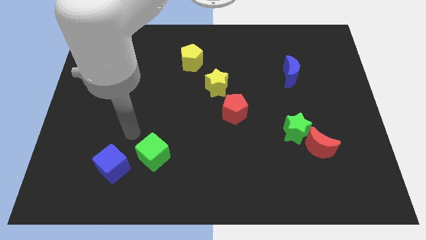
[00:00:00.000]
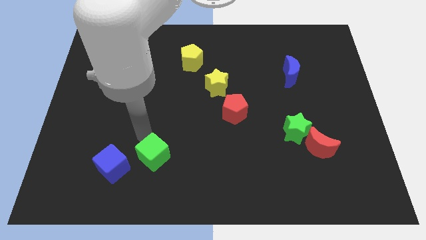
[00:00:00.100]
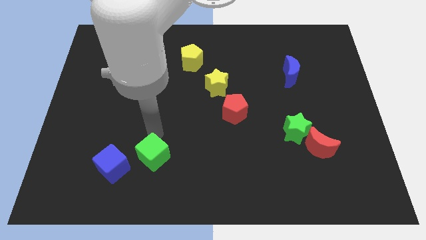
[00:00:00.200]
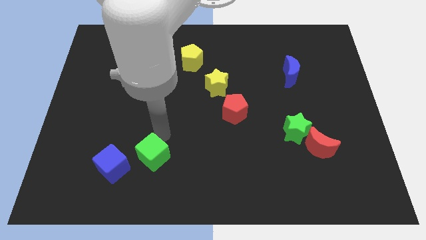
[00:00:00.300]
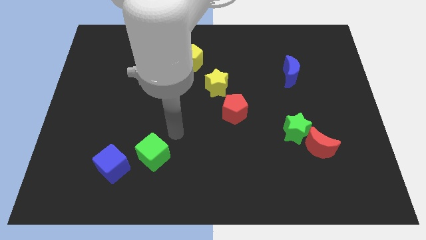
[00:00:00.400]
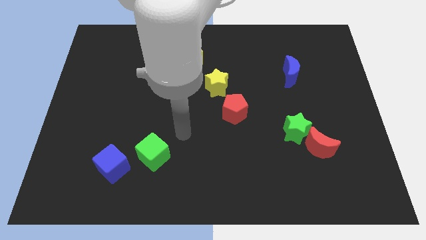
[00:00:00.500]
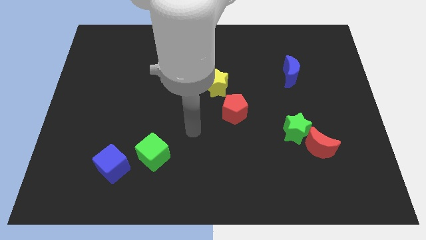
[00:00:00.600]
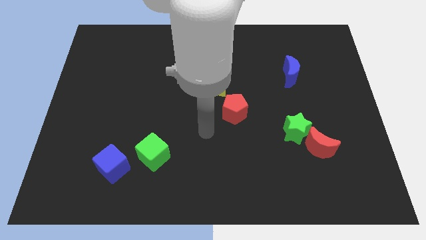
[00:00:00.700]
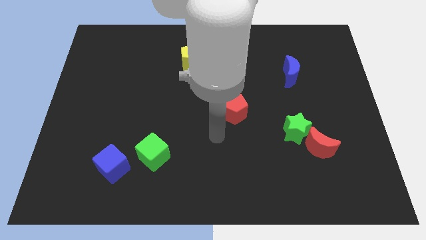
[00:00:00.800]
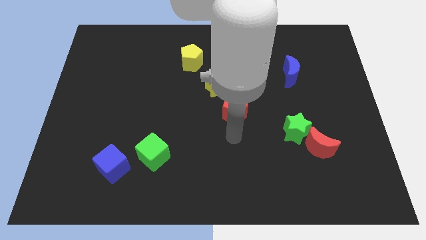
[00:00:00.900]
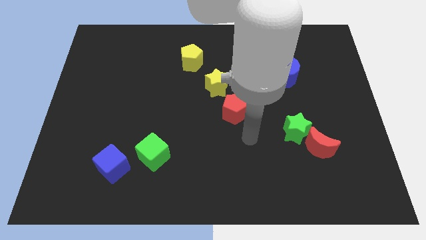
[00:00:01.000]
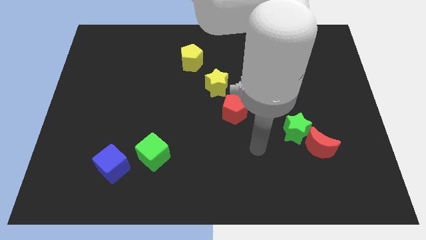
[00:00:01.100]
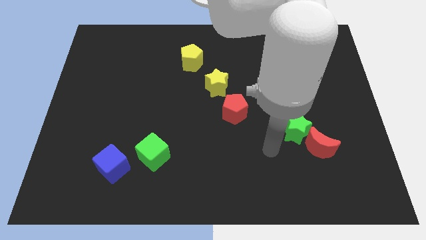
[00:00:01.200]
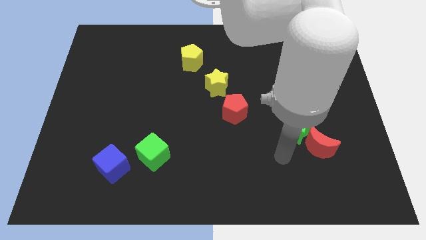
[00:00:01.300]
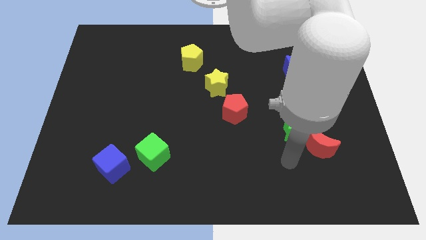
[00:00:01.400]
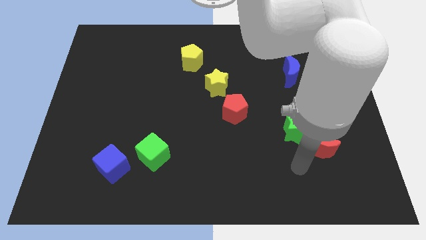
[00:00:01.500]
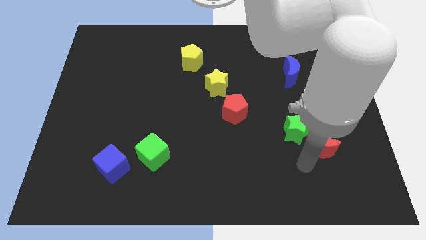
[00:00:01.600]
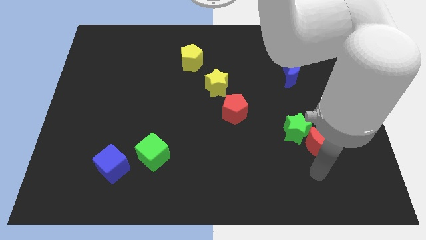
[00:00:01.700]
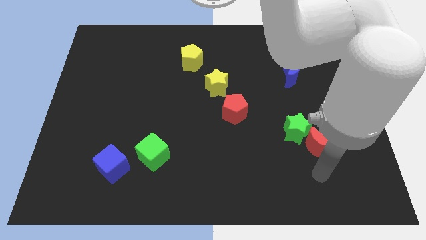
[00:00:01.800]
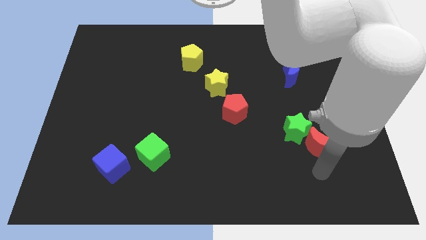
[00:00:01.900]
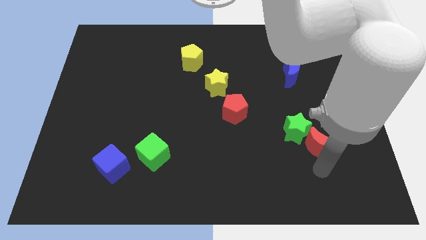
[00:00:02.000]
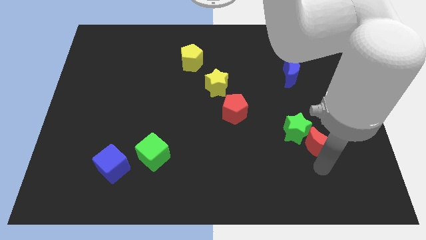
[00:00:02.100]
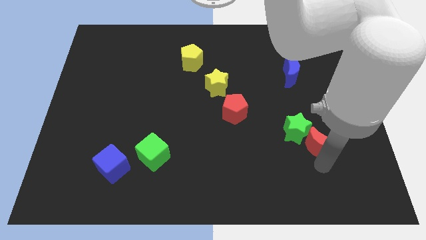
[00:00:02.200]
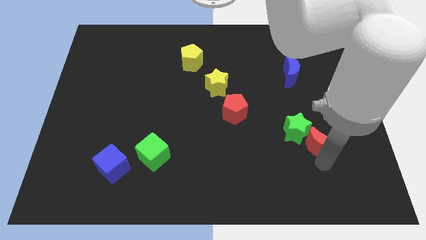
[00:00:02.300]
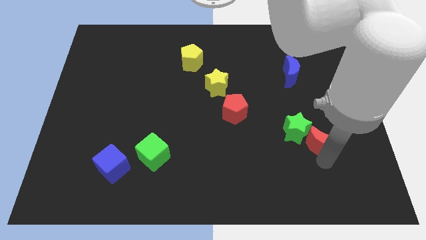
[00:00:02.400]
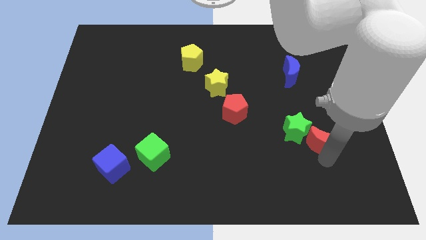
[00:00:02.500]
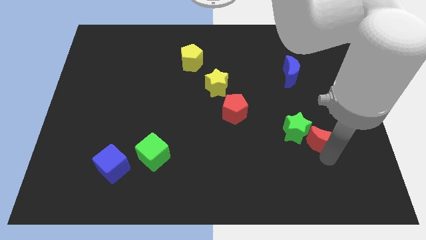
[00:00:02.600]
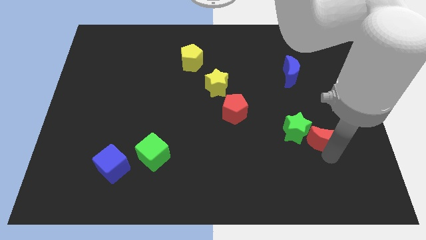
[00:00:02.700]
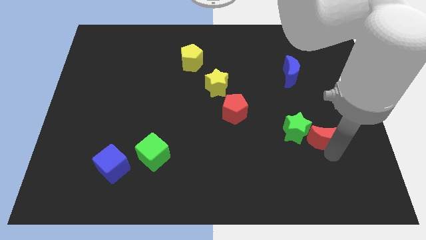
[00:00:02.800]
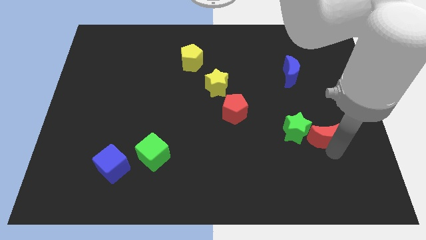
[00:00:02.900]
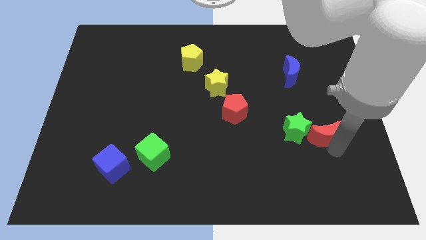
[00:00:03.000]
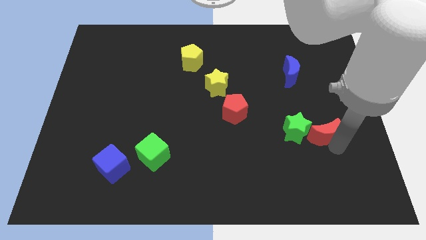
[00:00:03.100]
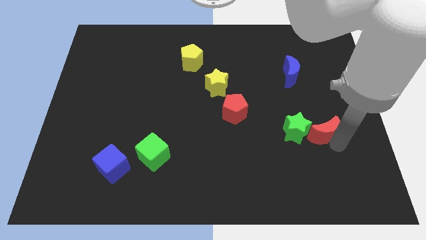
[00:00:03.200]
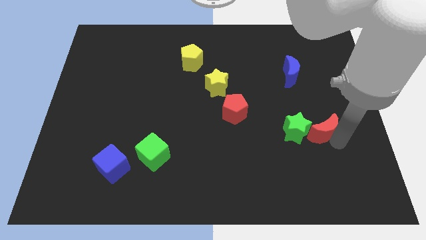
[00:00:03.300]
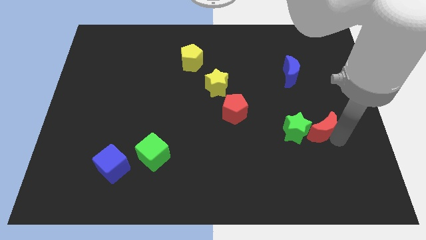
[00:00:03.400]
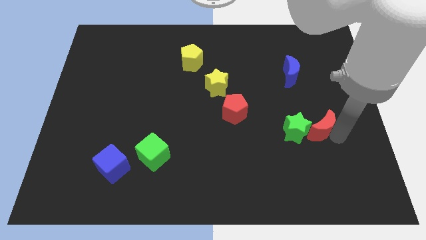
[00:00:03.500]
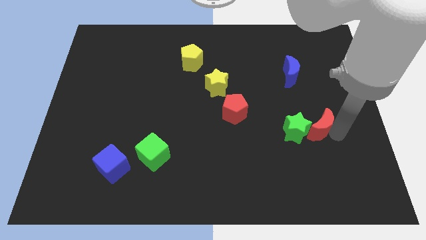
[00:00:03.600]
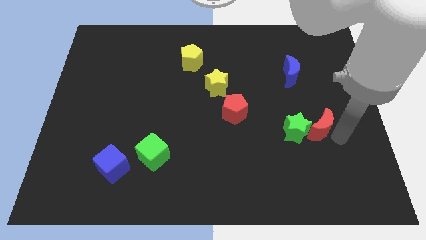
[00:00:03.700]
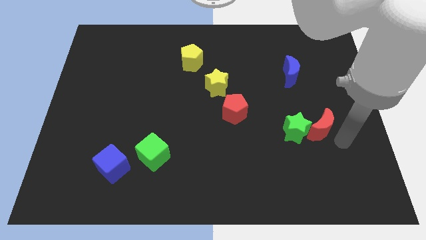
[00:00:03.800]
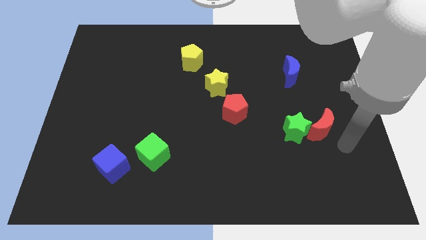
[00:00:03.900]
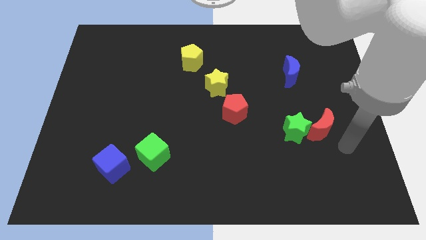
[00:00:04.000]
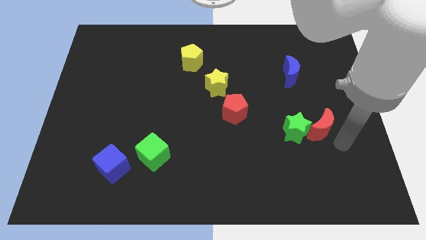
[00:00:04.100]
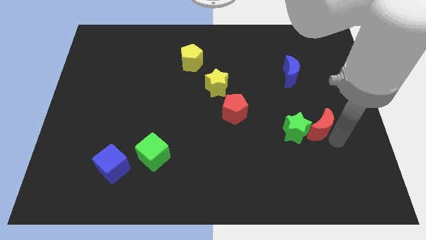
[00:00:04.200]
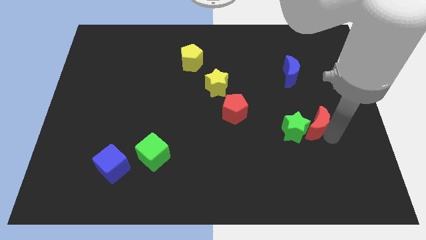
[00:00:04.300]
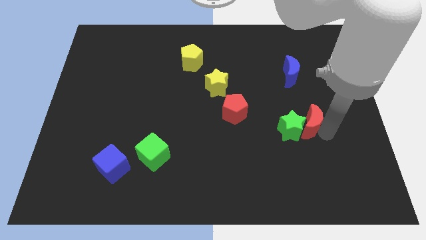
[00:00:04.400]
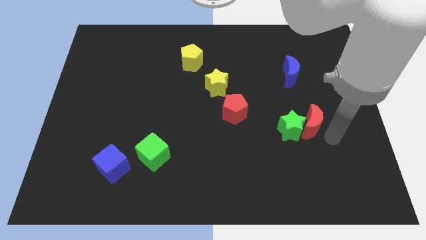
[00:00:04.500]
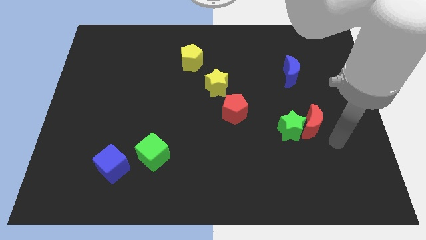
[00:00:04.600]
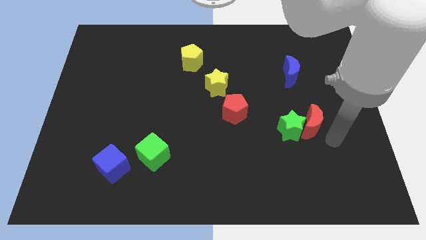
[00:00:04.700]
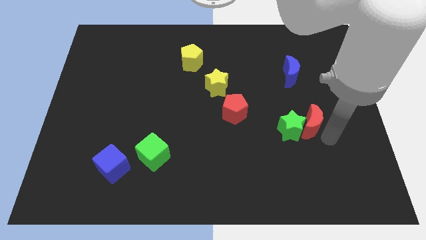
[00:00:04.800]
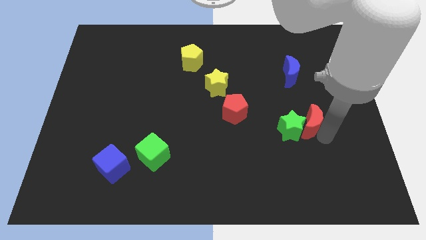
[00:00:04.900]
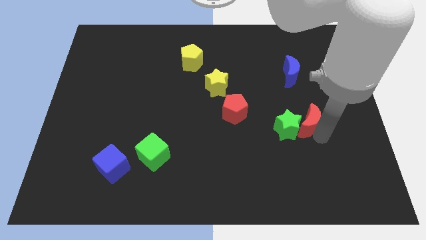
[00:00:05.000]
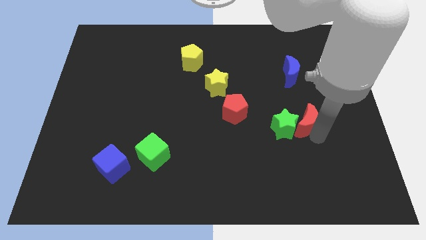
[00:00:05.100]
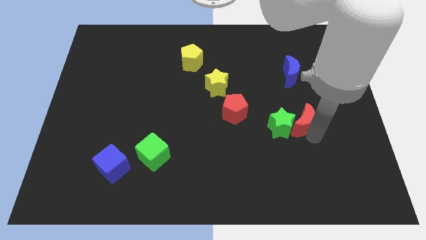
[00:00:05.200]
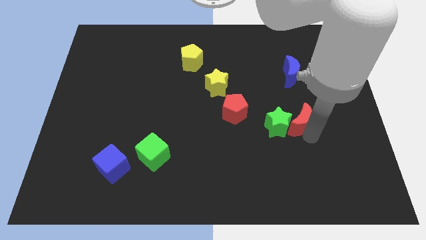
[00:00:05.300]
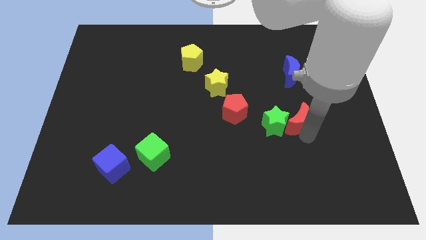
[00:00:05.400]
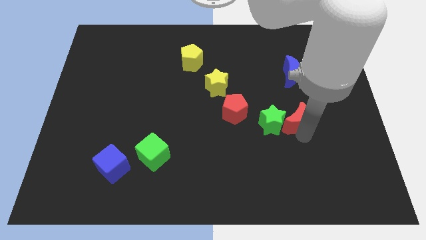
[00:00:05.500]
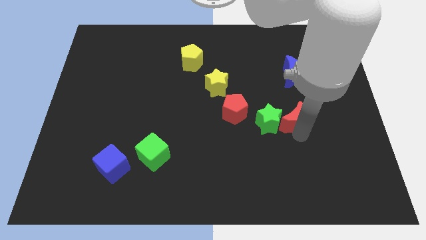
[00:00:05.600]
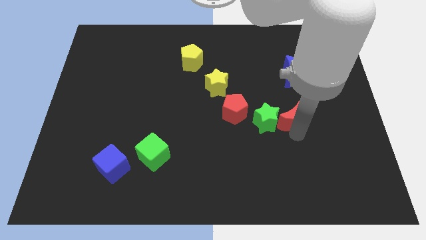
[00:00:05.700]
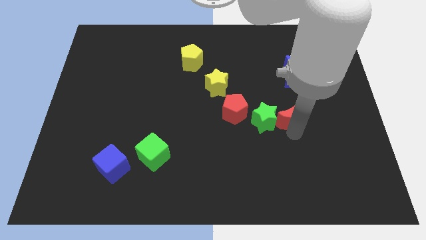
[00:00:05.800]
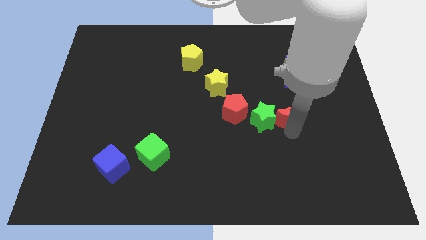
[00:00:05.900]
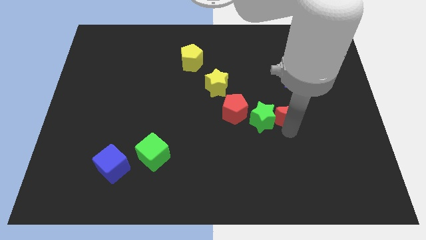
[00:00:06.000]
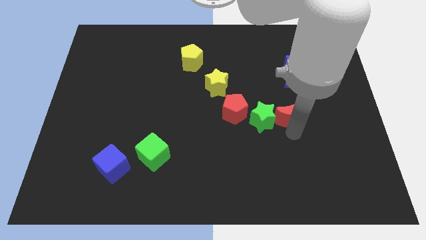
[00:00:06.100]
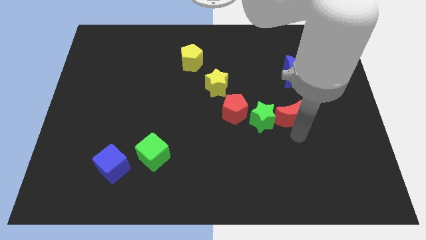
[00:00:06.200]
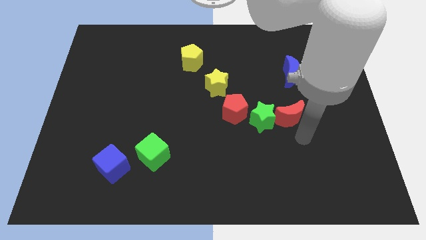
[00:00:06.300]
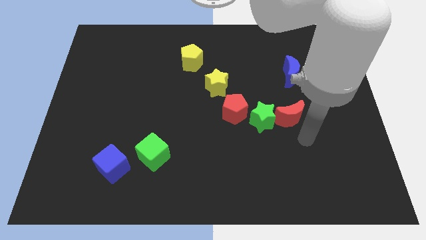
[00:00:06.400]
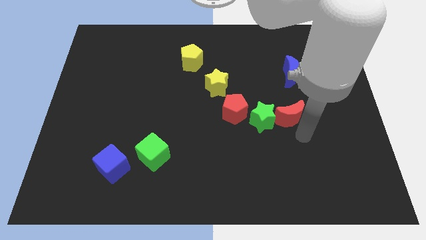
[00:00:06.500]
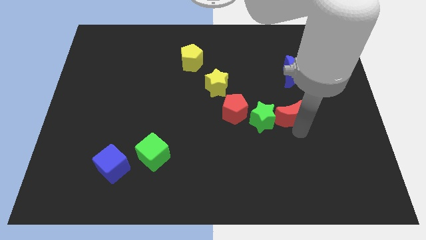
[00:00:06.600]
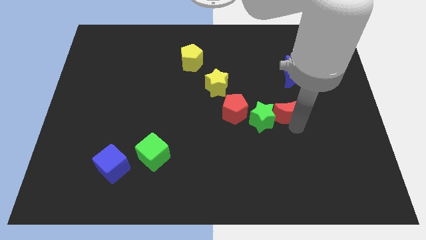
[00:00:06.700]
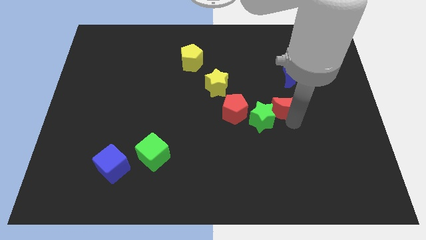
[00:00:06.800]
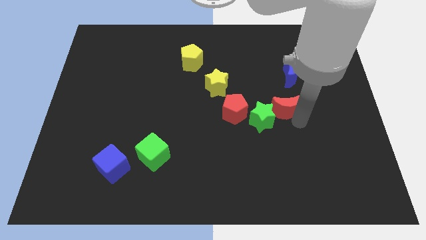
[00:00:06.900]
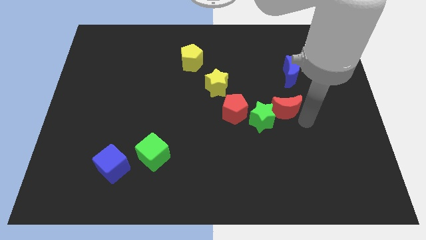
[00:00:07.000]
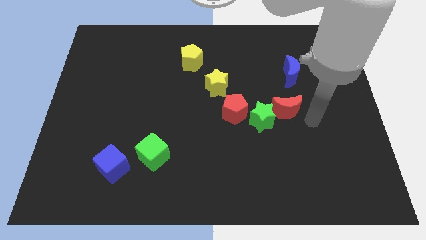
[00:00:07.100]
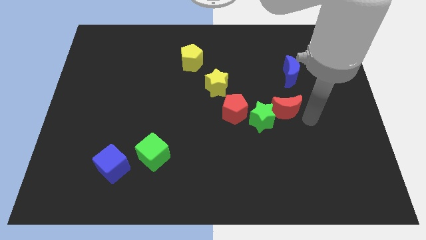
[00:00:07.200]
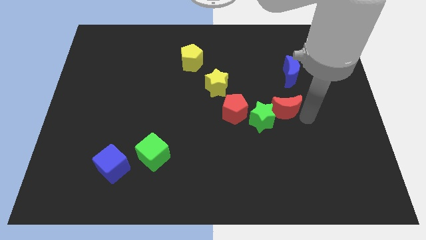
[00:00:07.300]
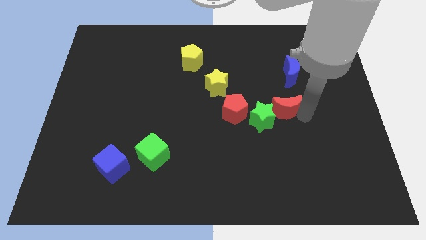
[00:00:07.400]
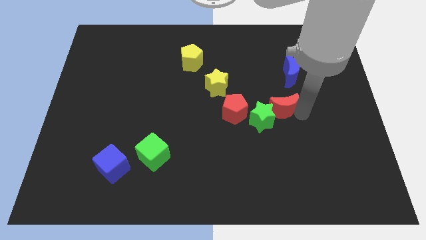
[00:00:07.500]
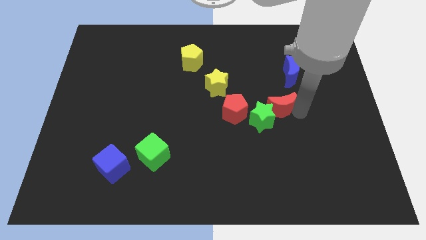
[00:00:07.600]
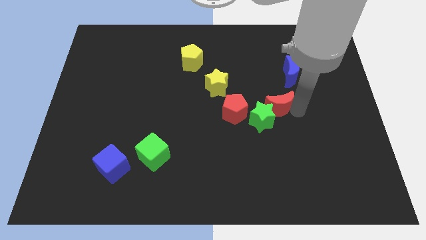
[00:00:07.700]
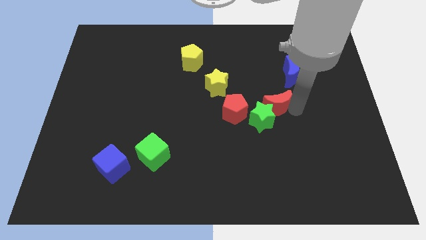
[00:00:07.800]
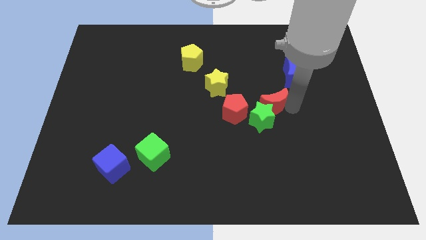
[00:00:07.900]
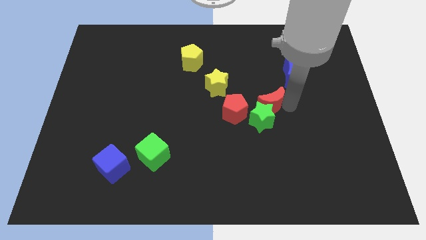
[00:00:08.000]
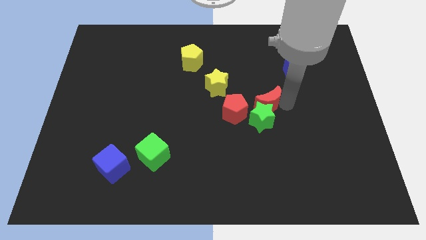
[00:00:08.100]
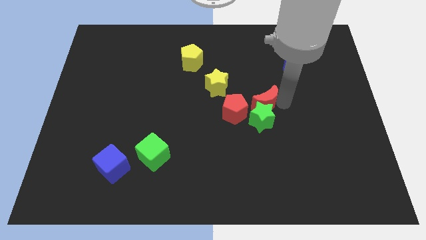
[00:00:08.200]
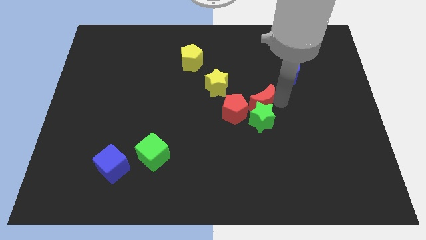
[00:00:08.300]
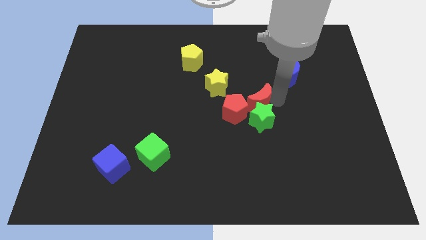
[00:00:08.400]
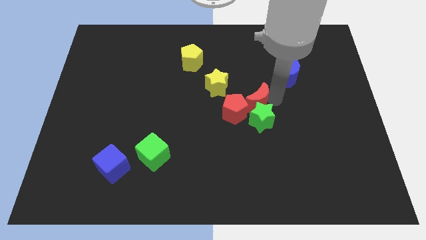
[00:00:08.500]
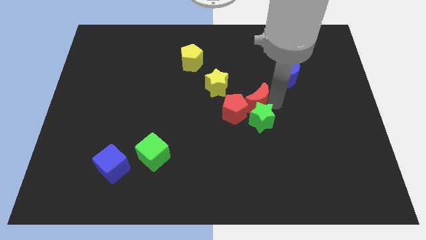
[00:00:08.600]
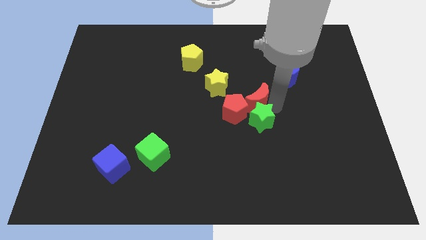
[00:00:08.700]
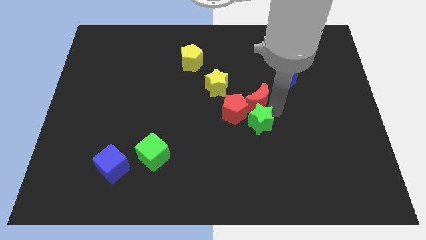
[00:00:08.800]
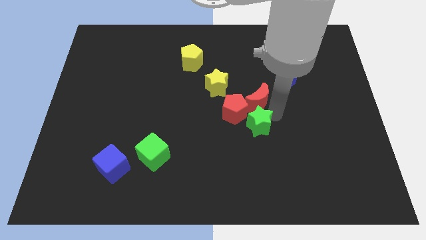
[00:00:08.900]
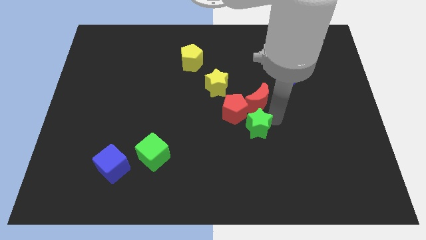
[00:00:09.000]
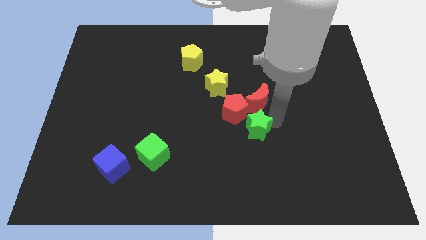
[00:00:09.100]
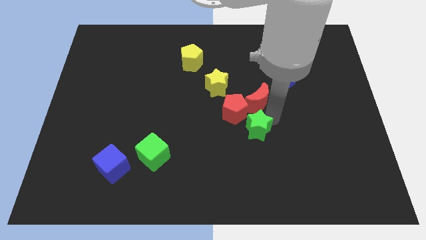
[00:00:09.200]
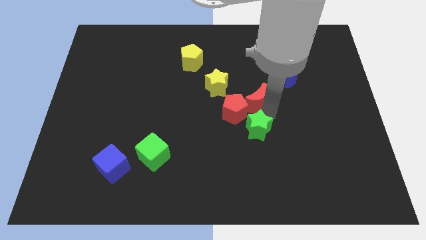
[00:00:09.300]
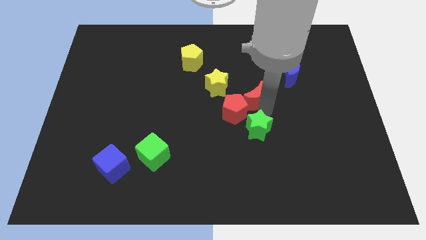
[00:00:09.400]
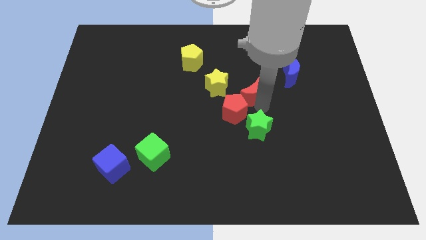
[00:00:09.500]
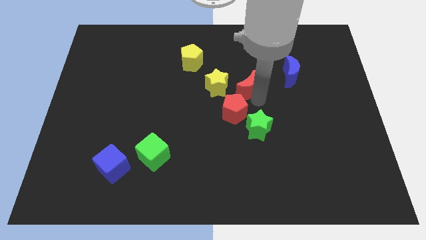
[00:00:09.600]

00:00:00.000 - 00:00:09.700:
slide the red moon up and then left
